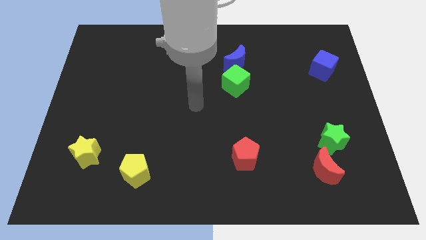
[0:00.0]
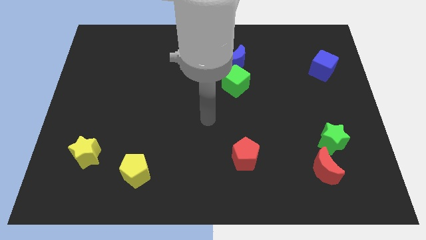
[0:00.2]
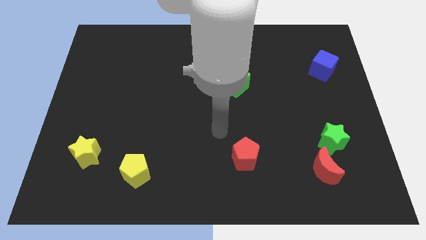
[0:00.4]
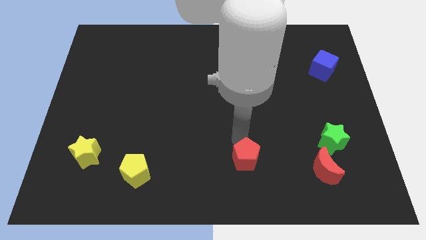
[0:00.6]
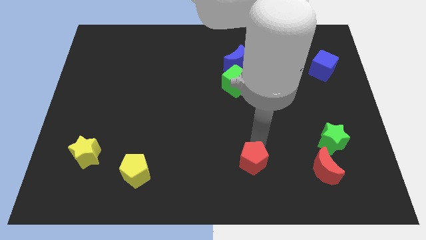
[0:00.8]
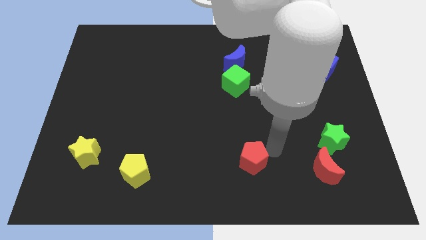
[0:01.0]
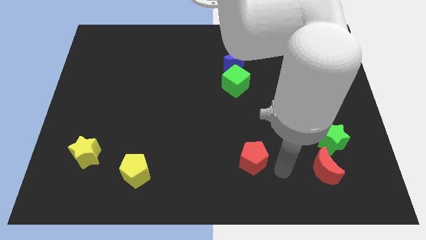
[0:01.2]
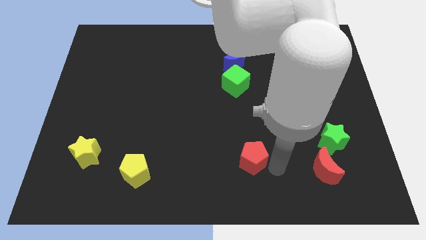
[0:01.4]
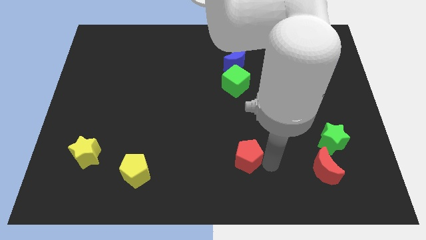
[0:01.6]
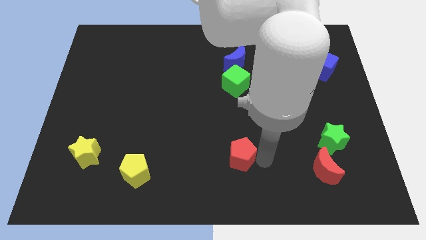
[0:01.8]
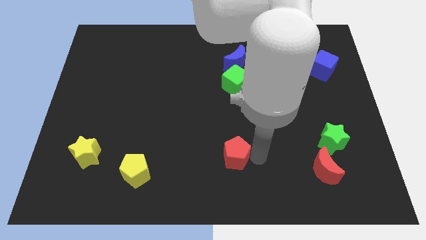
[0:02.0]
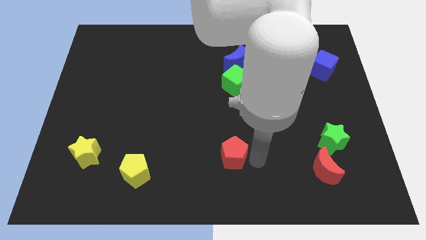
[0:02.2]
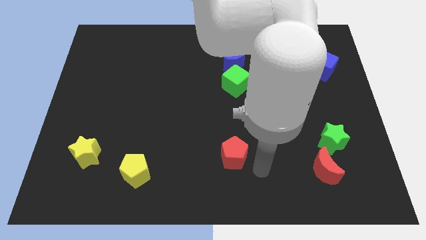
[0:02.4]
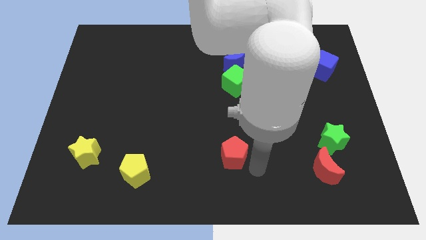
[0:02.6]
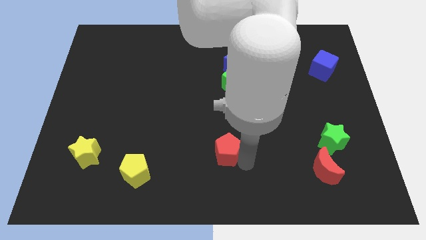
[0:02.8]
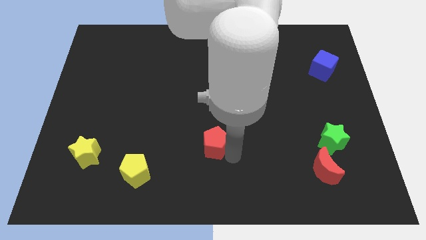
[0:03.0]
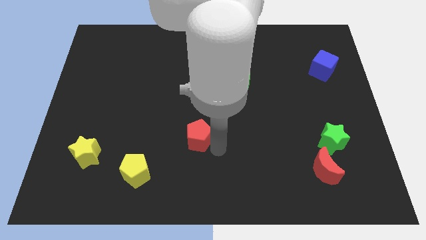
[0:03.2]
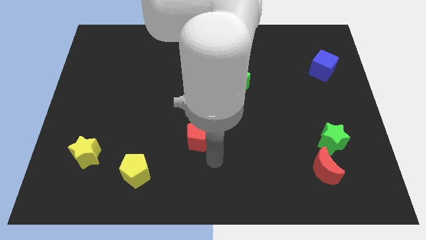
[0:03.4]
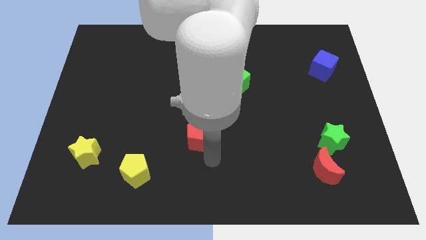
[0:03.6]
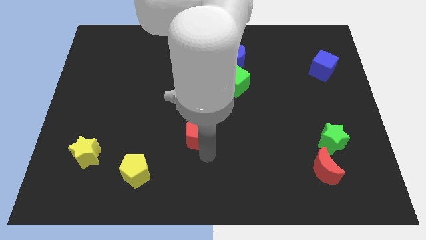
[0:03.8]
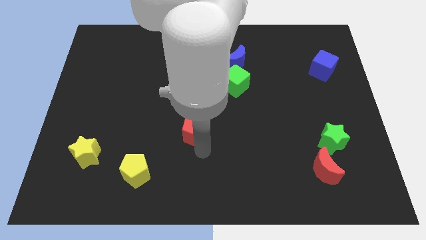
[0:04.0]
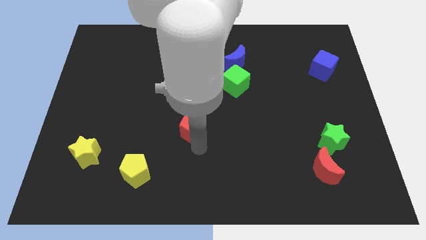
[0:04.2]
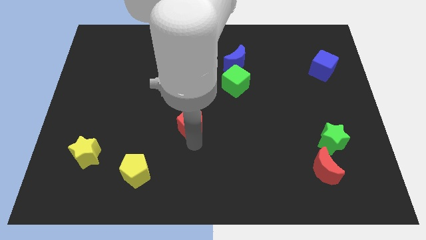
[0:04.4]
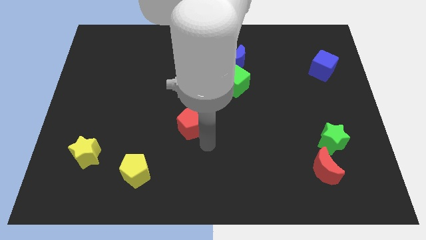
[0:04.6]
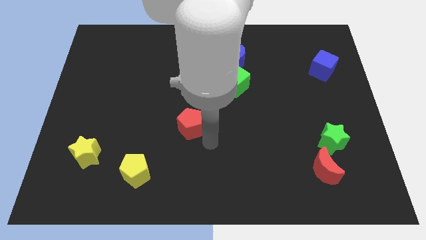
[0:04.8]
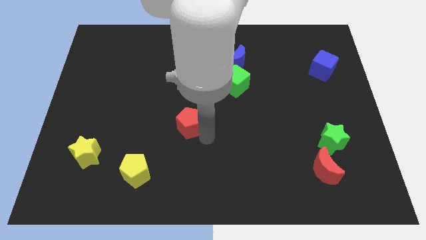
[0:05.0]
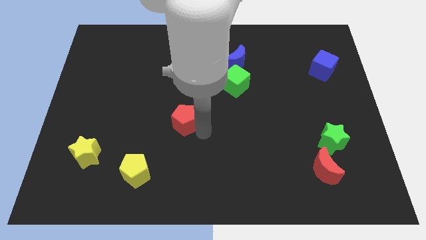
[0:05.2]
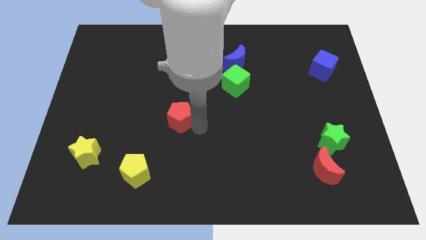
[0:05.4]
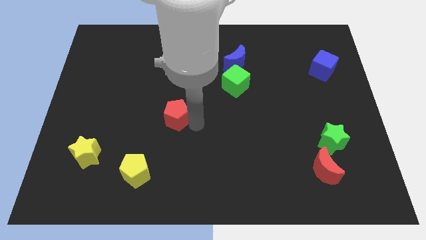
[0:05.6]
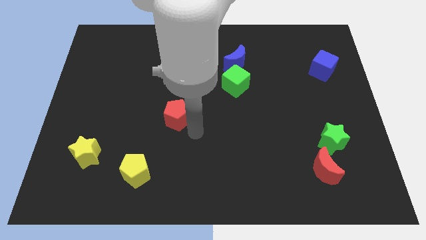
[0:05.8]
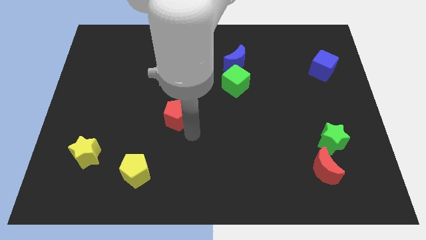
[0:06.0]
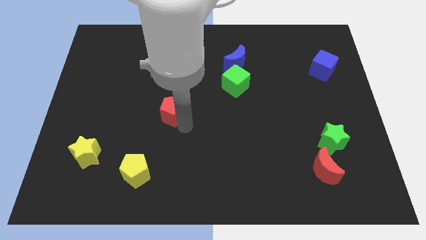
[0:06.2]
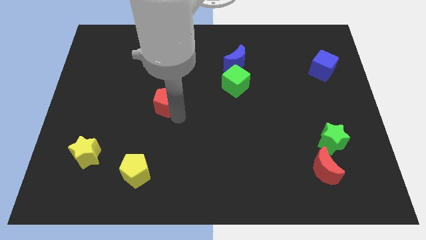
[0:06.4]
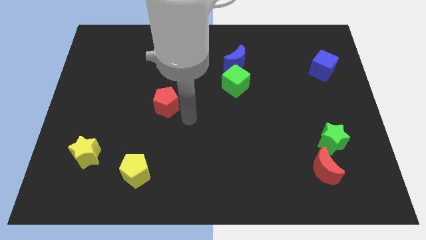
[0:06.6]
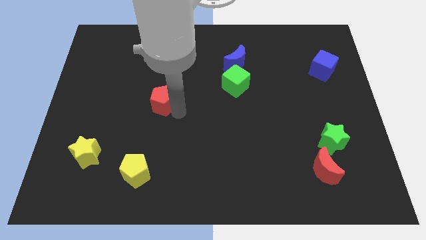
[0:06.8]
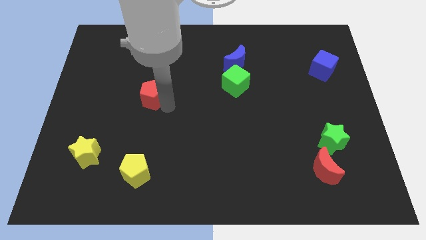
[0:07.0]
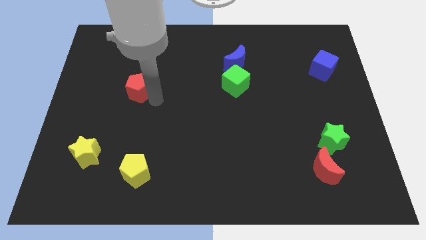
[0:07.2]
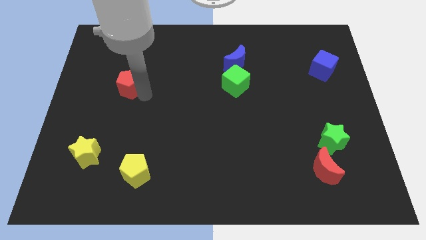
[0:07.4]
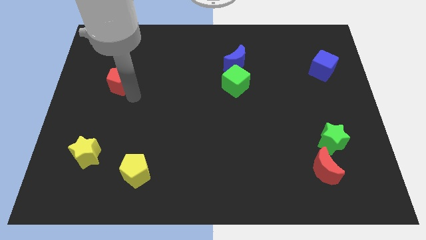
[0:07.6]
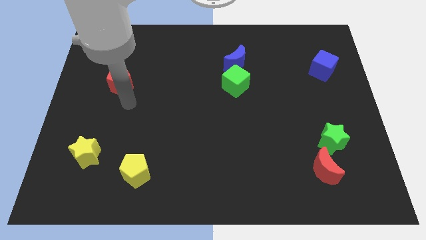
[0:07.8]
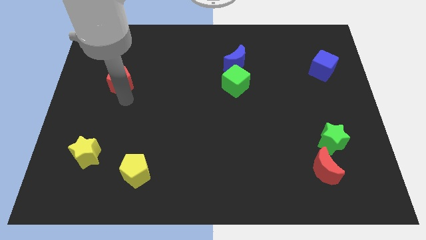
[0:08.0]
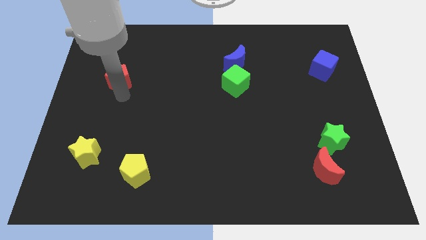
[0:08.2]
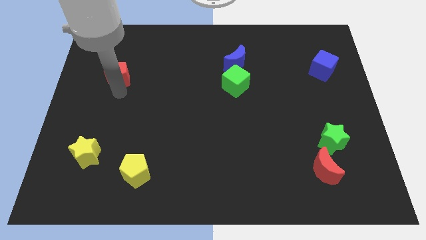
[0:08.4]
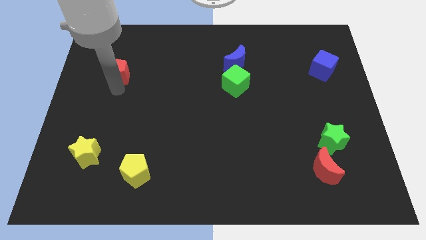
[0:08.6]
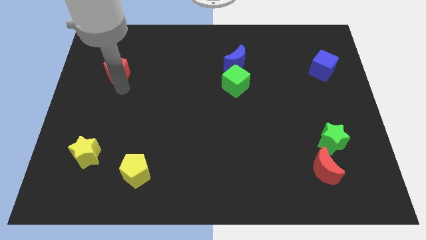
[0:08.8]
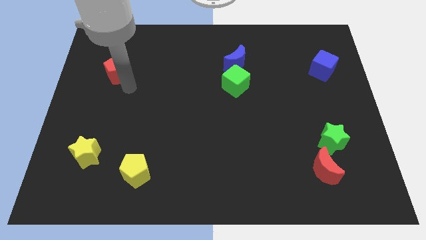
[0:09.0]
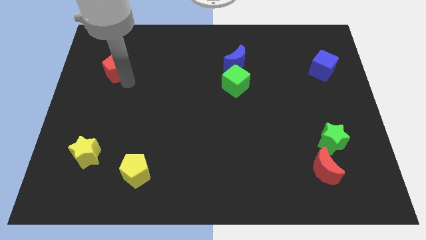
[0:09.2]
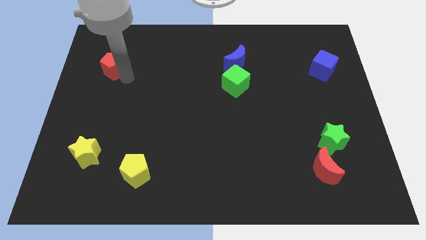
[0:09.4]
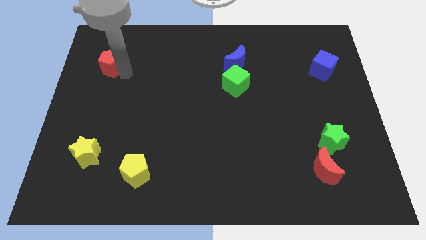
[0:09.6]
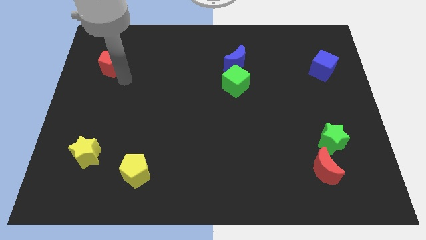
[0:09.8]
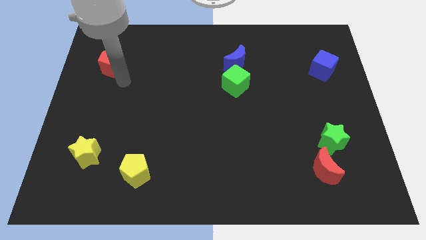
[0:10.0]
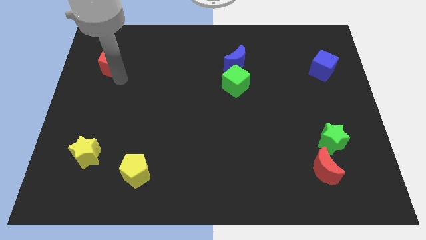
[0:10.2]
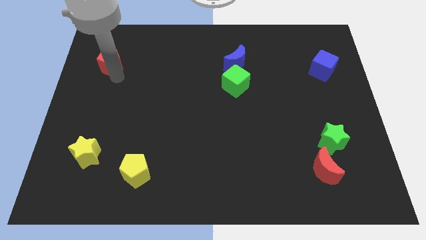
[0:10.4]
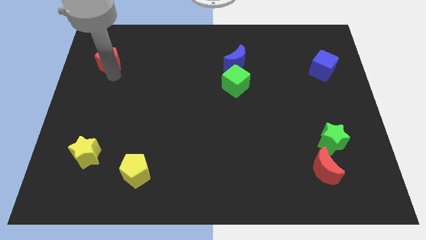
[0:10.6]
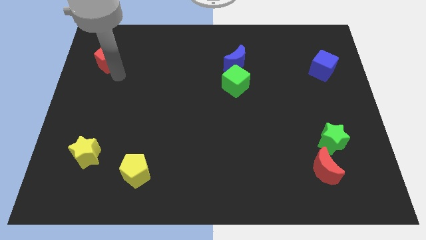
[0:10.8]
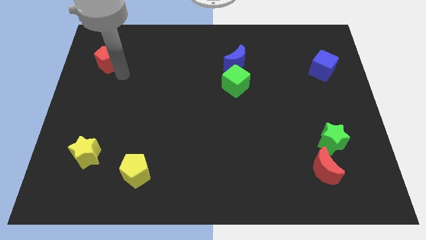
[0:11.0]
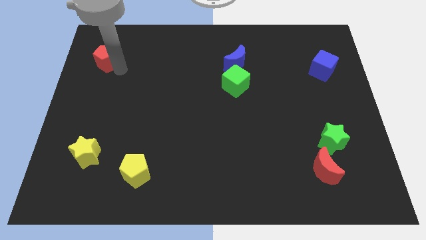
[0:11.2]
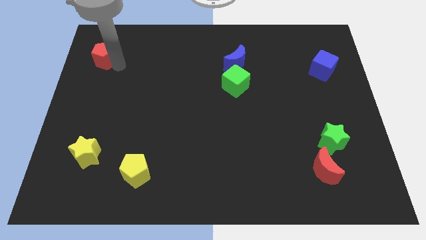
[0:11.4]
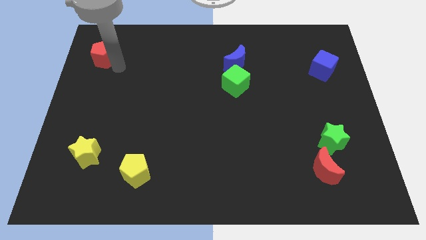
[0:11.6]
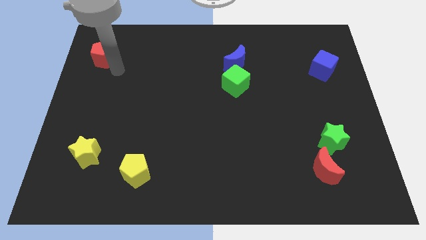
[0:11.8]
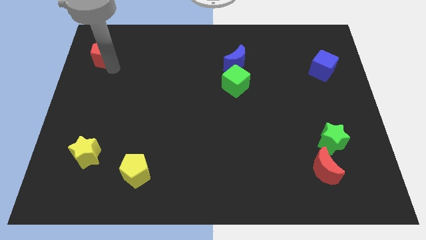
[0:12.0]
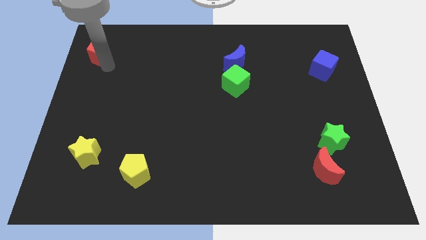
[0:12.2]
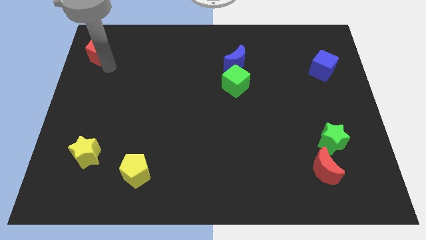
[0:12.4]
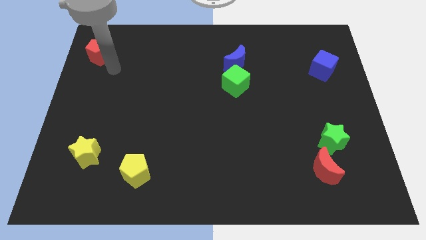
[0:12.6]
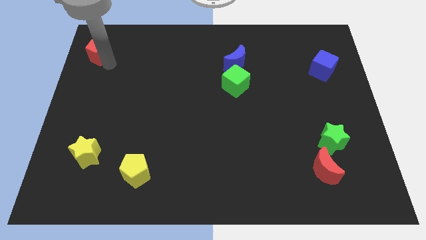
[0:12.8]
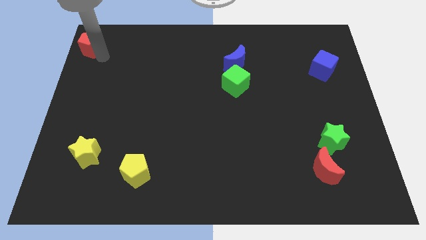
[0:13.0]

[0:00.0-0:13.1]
move the red pentagon to the upper left corner
